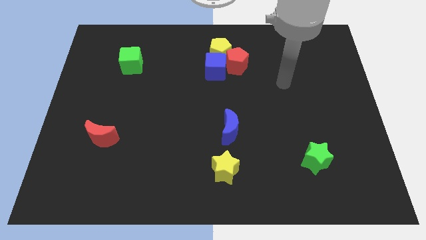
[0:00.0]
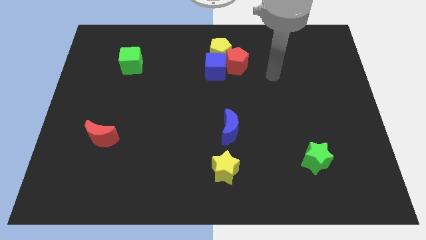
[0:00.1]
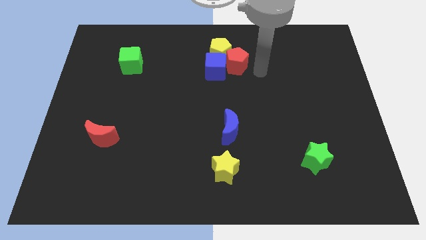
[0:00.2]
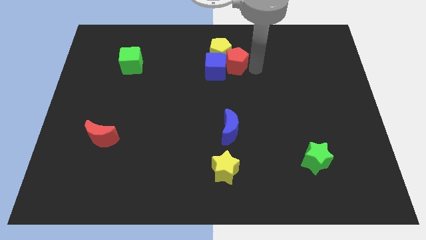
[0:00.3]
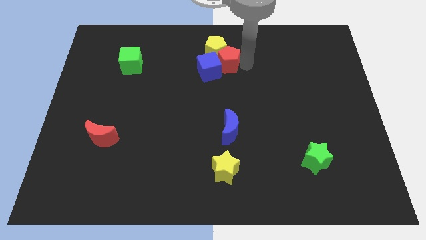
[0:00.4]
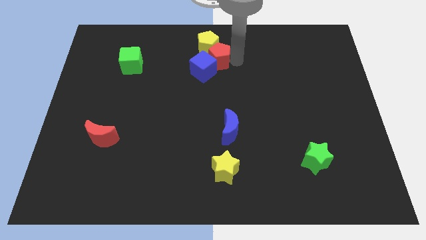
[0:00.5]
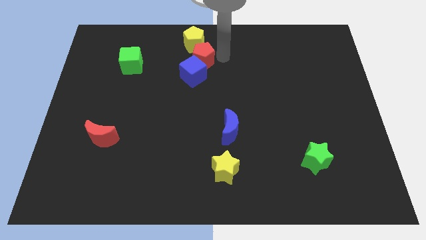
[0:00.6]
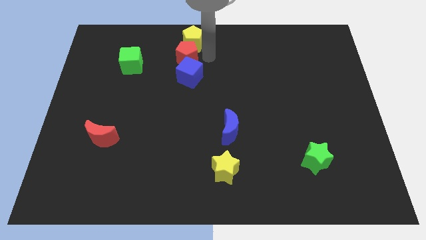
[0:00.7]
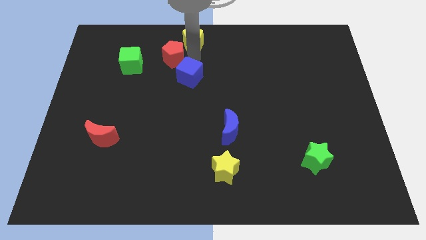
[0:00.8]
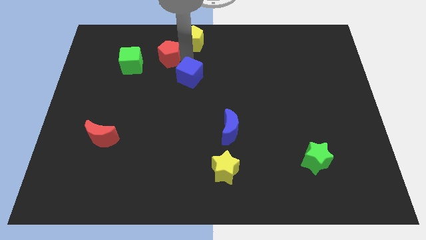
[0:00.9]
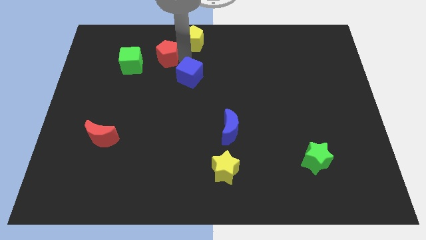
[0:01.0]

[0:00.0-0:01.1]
pull the blue cube apart from the red pentagon and yellow pentagon

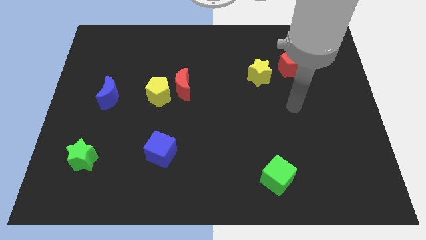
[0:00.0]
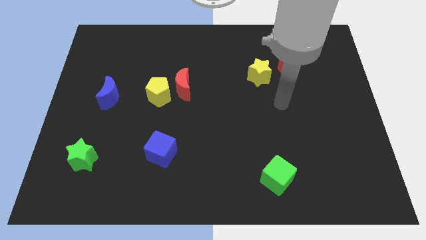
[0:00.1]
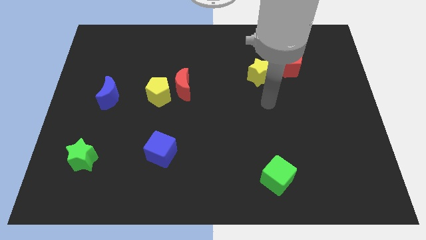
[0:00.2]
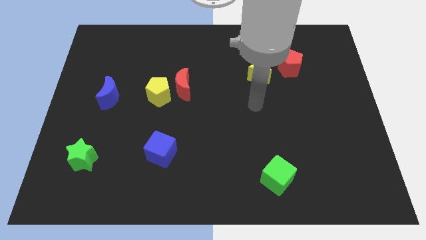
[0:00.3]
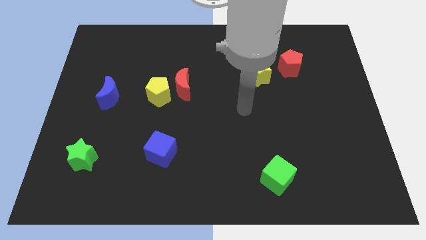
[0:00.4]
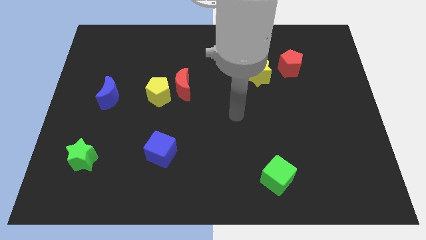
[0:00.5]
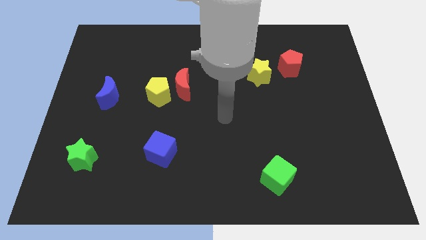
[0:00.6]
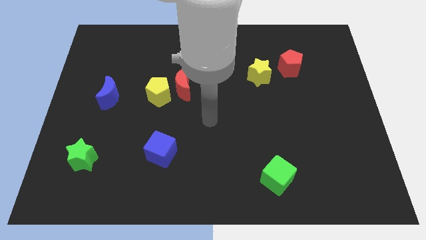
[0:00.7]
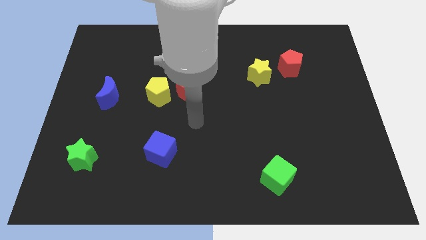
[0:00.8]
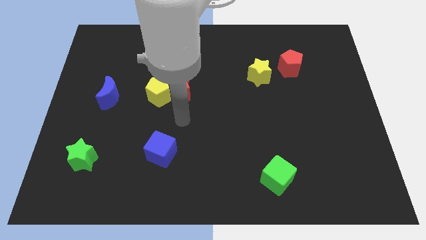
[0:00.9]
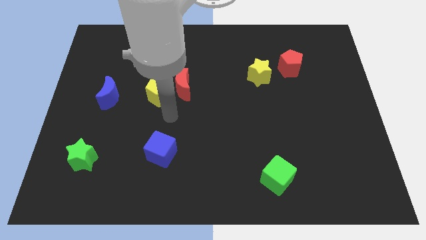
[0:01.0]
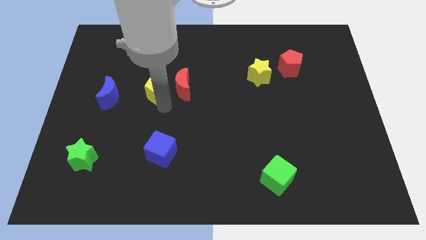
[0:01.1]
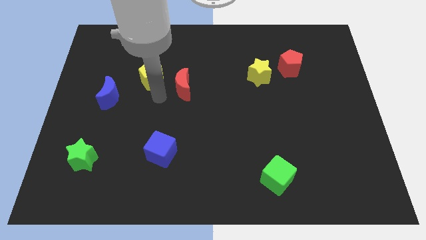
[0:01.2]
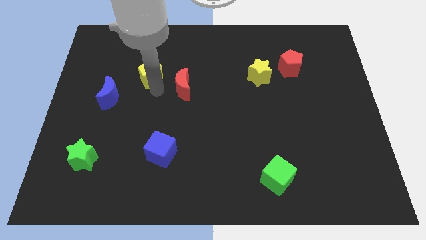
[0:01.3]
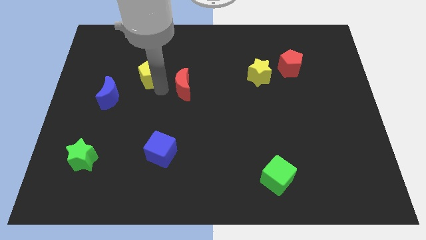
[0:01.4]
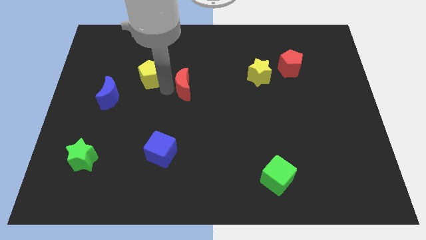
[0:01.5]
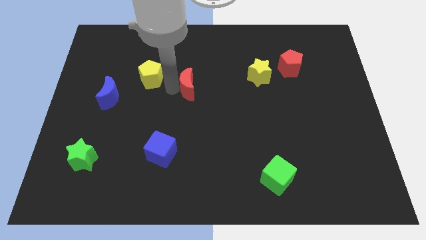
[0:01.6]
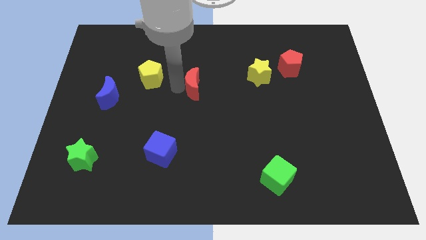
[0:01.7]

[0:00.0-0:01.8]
pull the red moon apart from the yellow pentagon

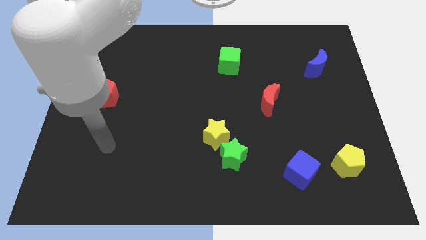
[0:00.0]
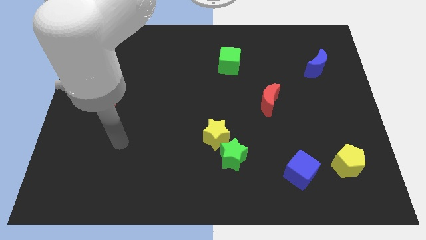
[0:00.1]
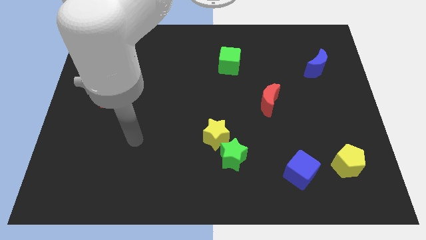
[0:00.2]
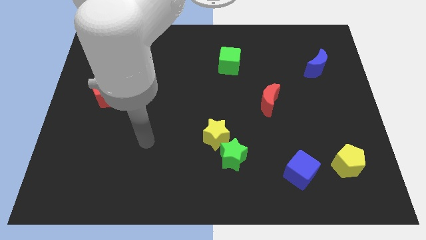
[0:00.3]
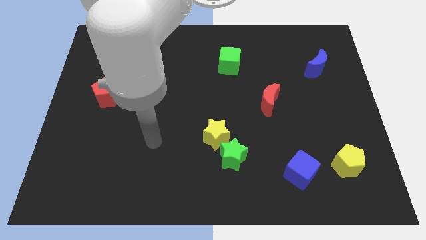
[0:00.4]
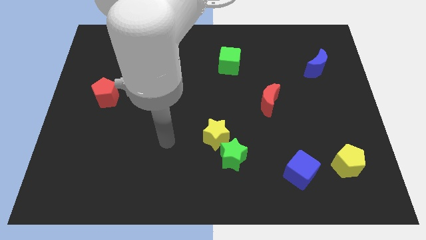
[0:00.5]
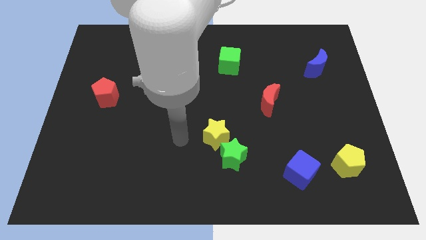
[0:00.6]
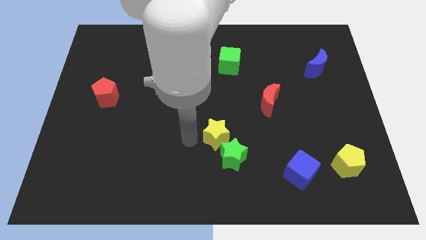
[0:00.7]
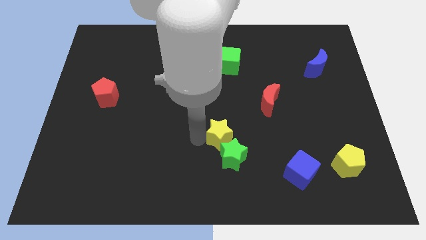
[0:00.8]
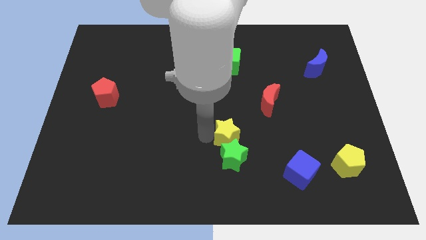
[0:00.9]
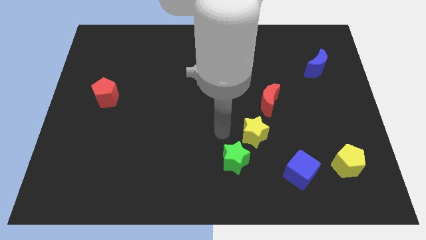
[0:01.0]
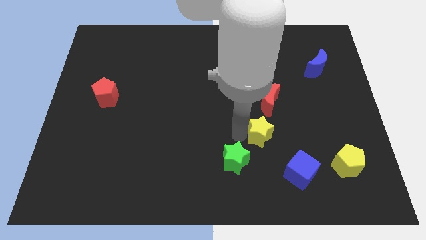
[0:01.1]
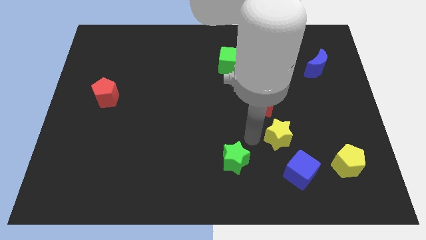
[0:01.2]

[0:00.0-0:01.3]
separate the green star from the yellow star

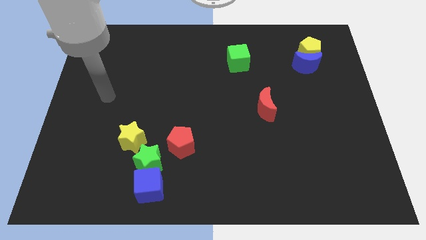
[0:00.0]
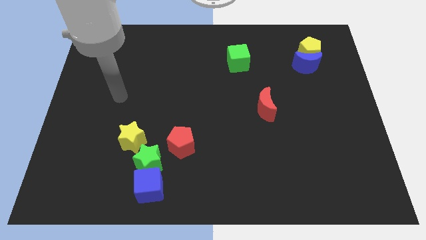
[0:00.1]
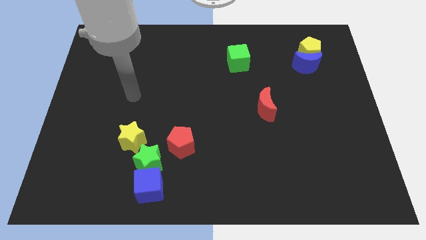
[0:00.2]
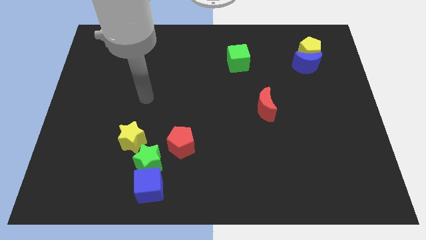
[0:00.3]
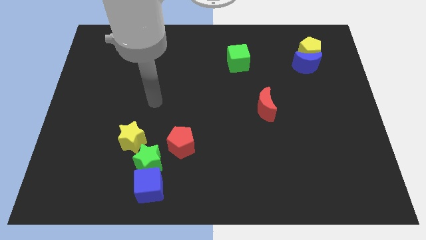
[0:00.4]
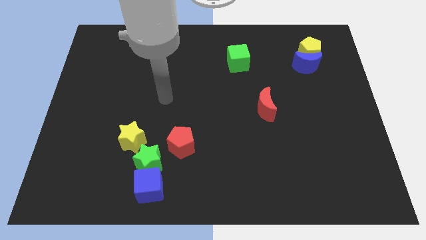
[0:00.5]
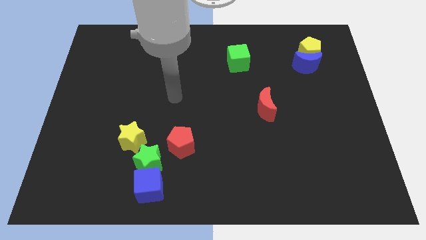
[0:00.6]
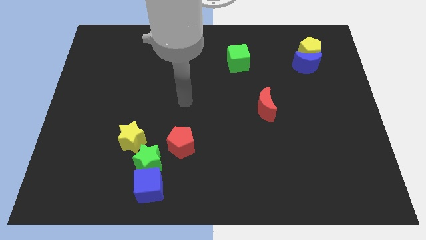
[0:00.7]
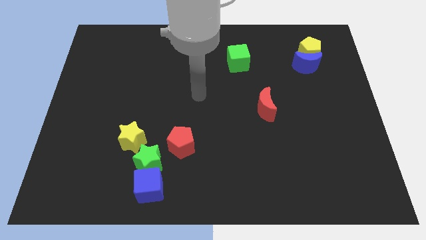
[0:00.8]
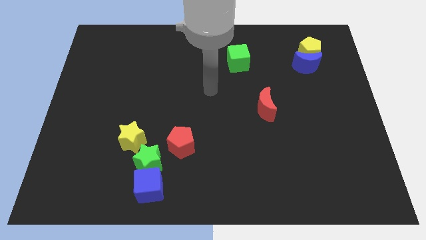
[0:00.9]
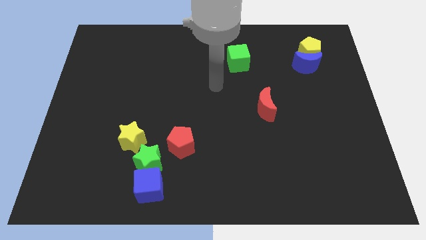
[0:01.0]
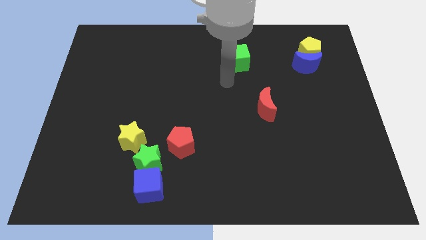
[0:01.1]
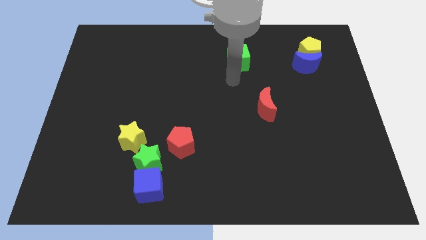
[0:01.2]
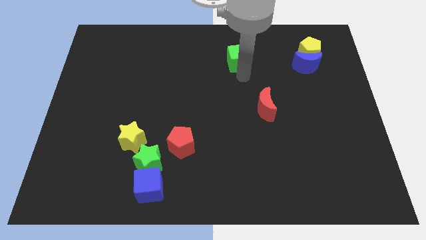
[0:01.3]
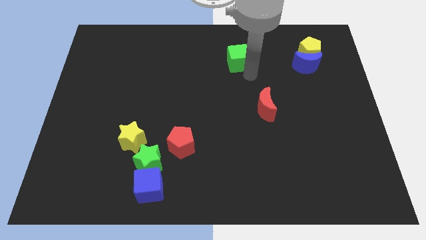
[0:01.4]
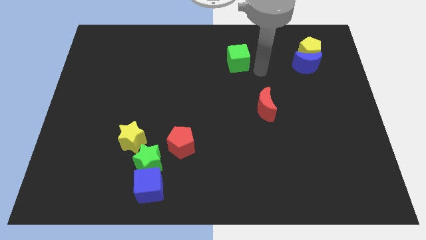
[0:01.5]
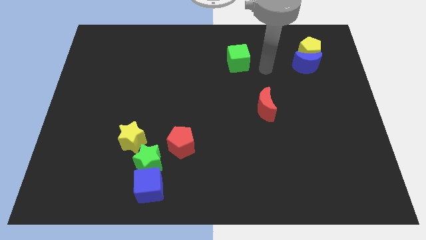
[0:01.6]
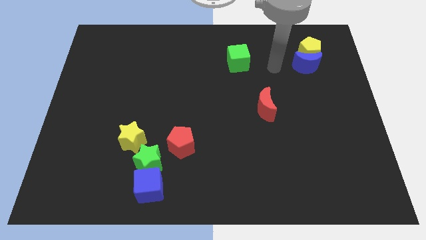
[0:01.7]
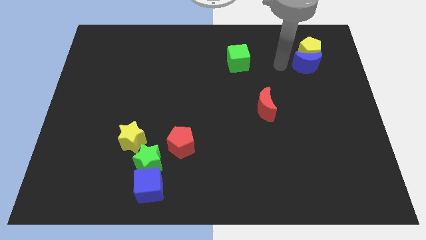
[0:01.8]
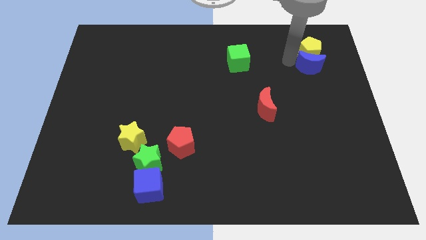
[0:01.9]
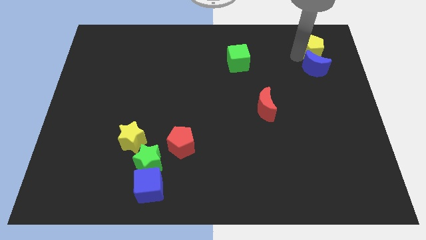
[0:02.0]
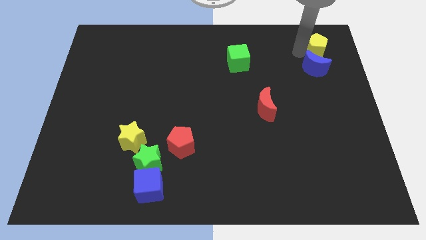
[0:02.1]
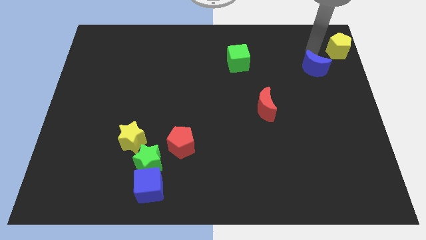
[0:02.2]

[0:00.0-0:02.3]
separate the blue moon from the yellow pentagon

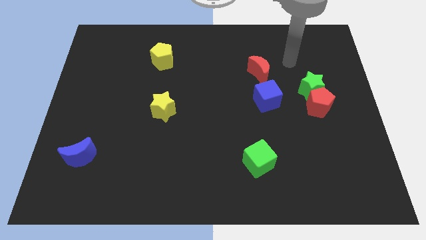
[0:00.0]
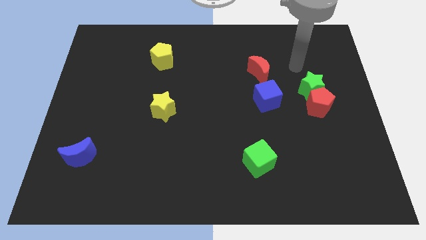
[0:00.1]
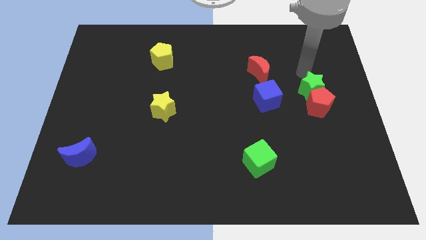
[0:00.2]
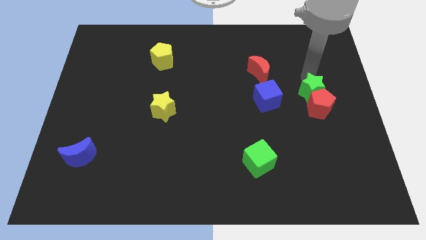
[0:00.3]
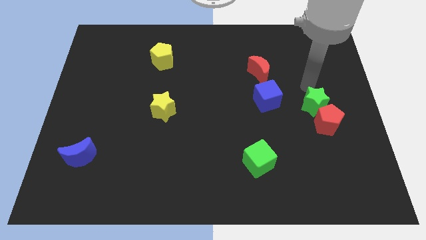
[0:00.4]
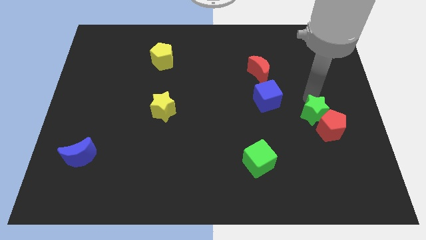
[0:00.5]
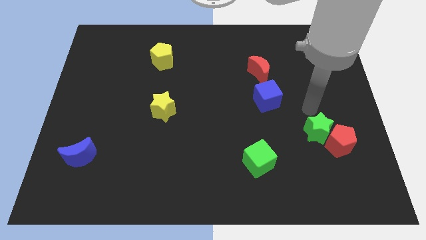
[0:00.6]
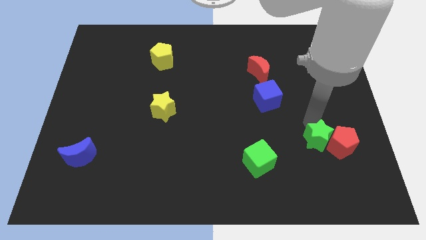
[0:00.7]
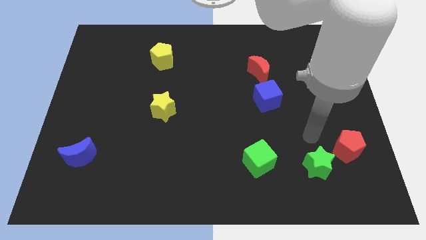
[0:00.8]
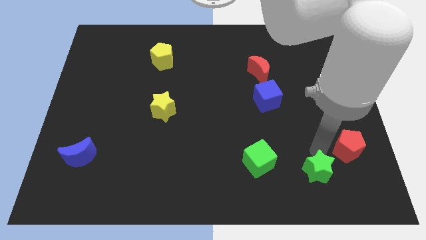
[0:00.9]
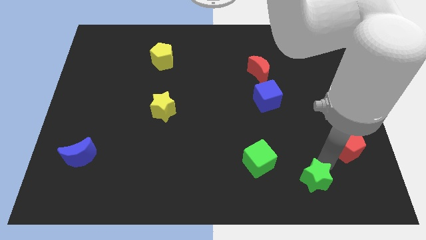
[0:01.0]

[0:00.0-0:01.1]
pull the red pentagon apart from the green star

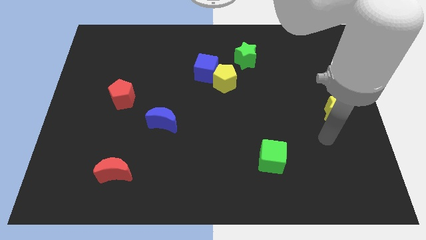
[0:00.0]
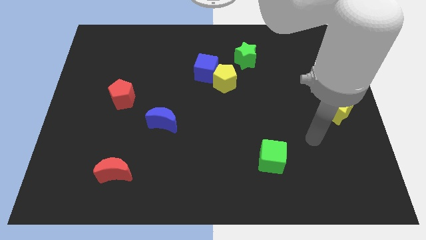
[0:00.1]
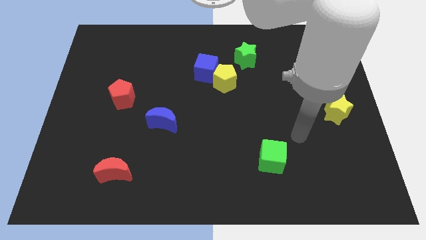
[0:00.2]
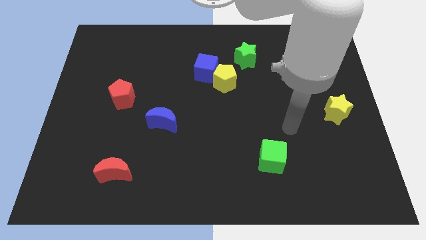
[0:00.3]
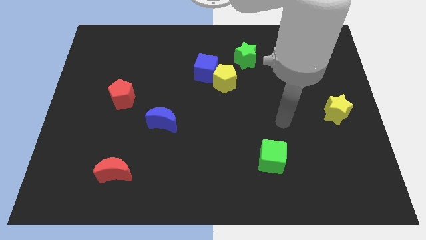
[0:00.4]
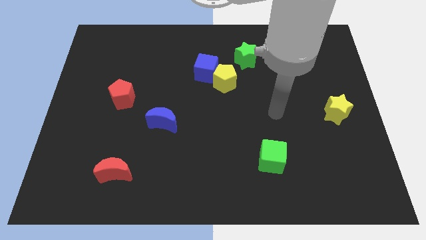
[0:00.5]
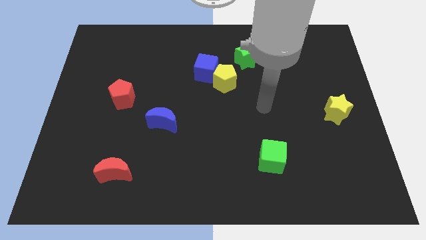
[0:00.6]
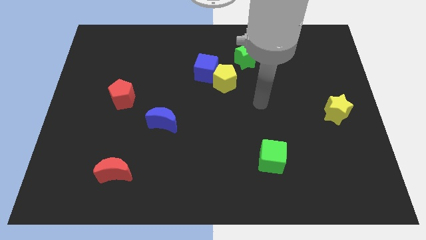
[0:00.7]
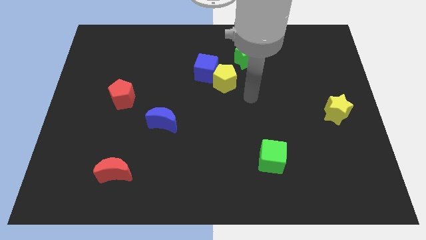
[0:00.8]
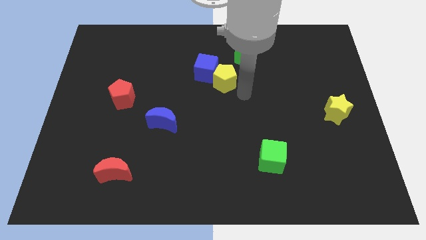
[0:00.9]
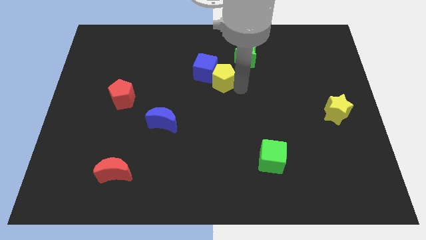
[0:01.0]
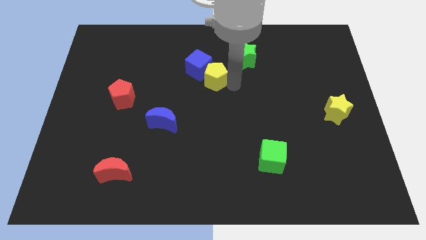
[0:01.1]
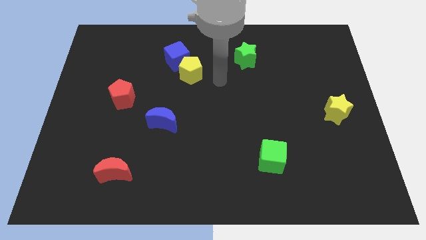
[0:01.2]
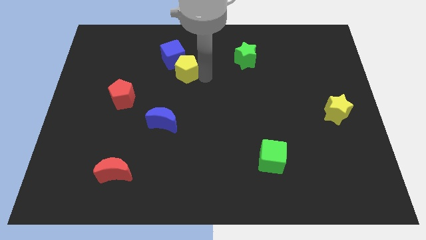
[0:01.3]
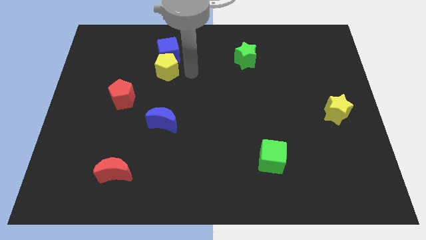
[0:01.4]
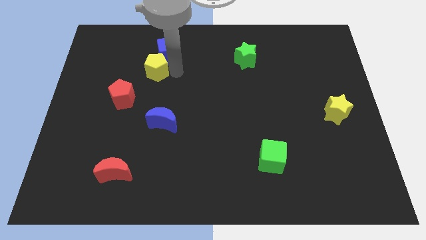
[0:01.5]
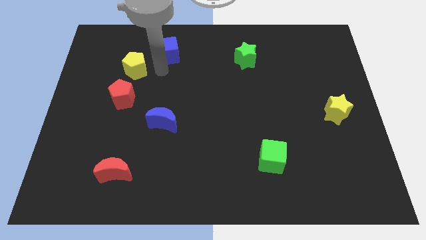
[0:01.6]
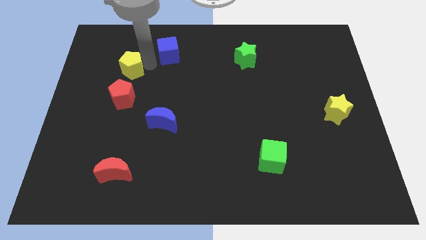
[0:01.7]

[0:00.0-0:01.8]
move the blue cube away from the yellow pentagon
